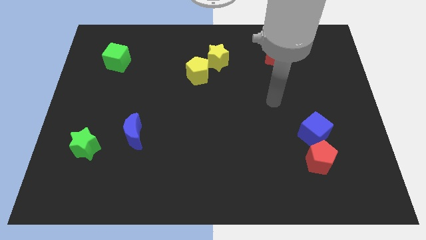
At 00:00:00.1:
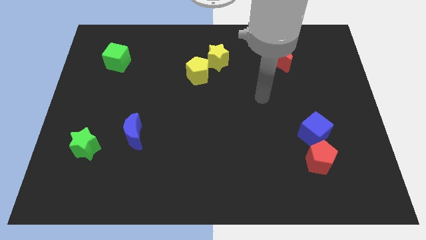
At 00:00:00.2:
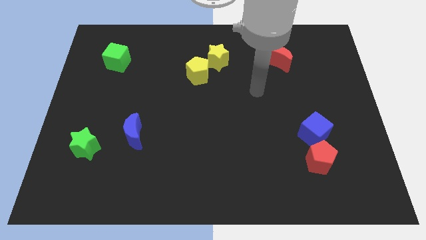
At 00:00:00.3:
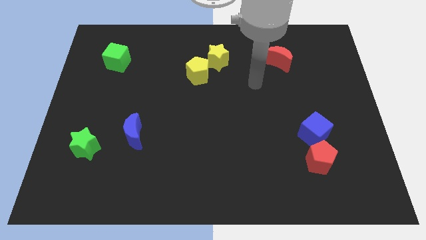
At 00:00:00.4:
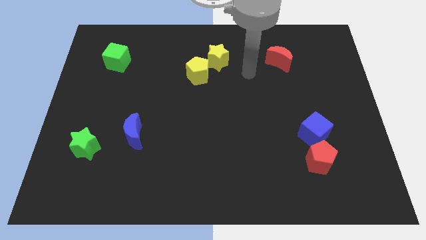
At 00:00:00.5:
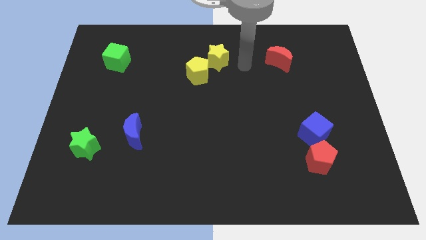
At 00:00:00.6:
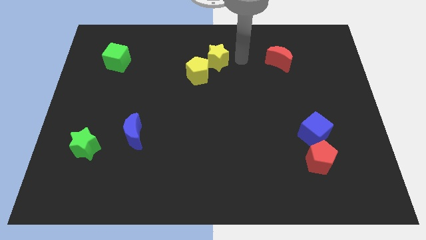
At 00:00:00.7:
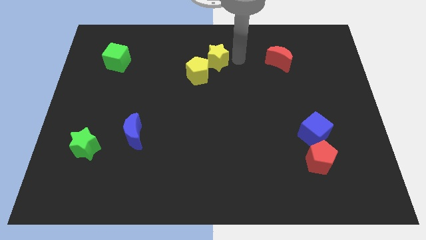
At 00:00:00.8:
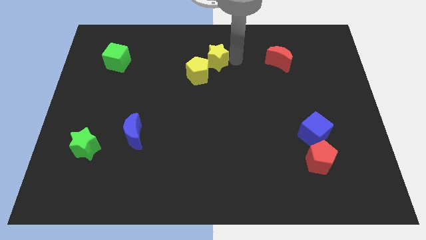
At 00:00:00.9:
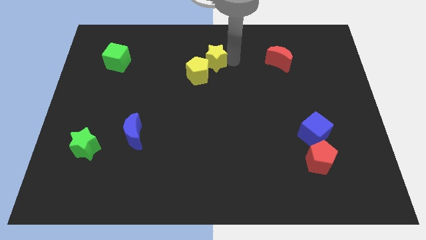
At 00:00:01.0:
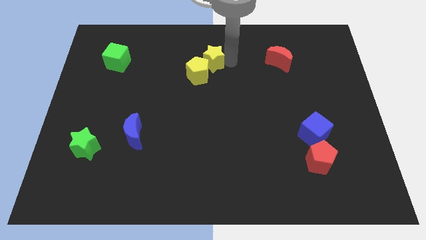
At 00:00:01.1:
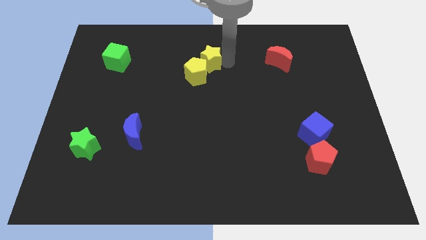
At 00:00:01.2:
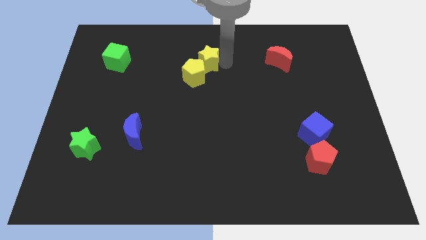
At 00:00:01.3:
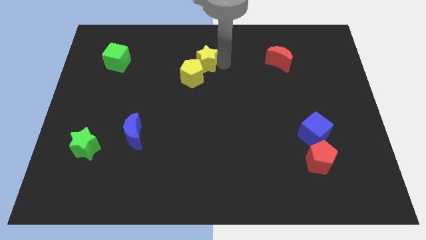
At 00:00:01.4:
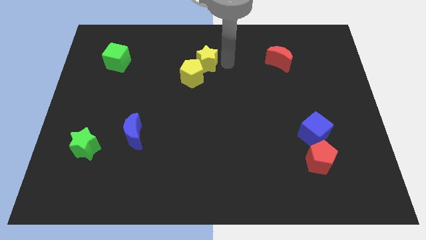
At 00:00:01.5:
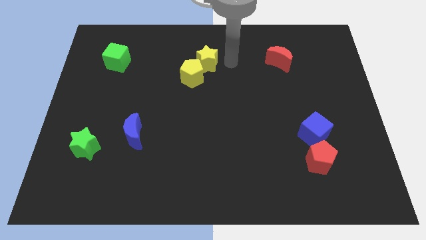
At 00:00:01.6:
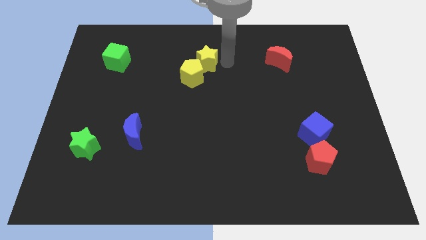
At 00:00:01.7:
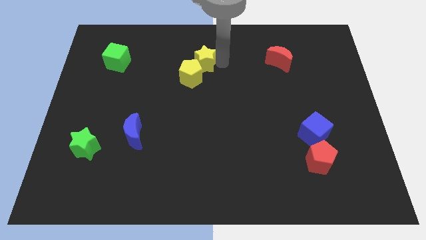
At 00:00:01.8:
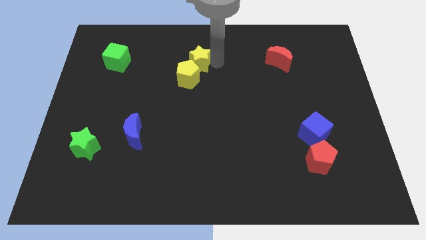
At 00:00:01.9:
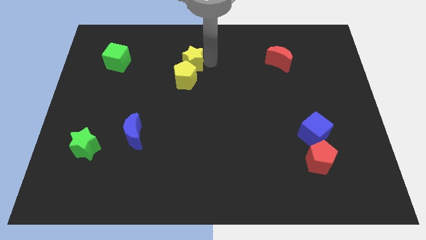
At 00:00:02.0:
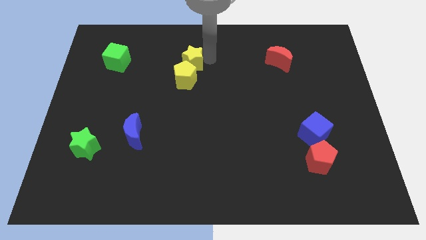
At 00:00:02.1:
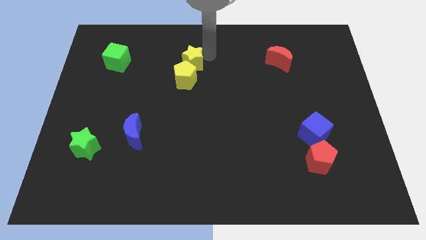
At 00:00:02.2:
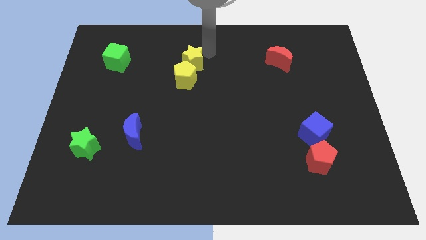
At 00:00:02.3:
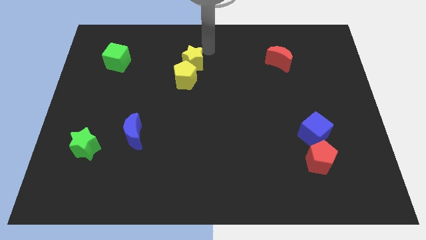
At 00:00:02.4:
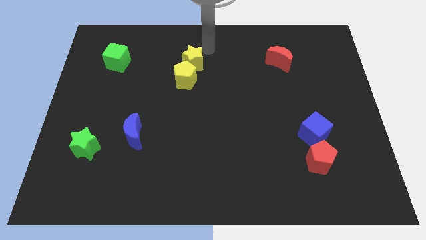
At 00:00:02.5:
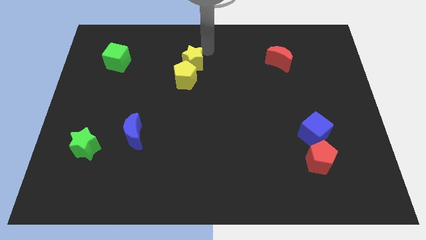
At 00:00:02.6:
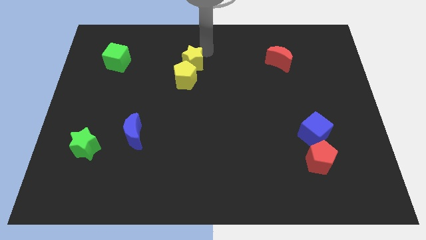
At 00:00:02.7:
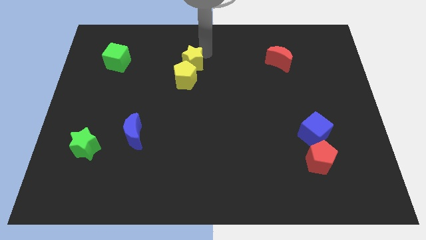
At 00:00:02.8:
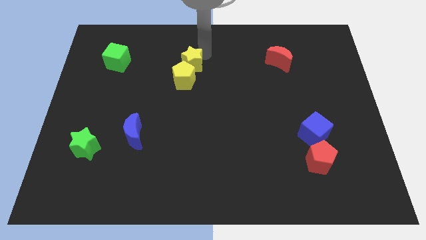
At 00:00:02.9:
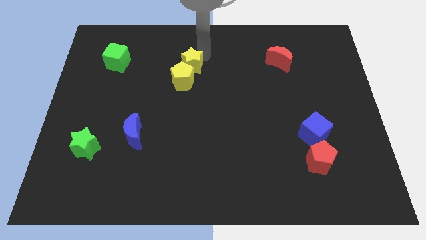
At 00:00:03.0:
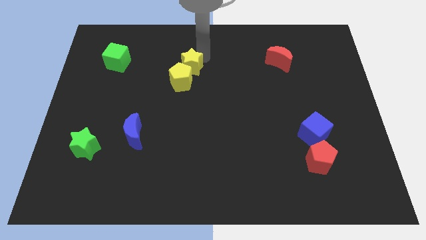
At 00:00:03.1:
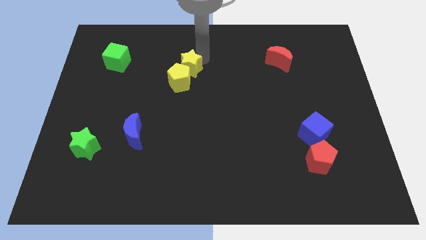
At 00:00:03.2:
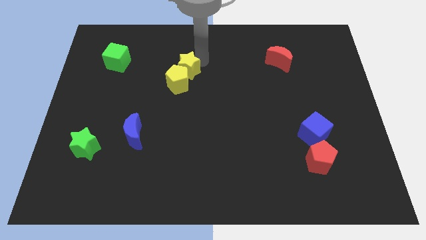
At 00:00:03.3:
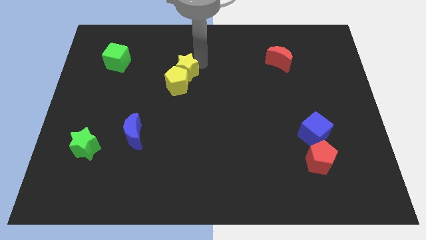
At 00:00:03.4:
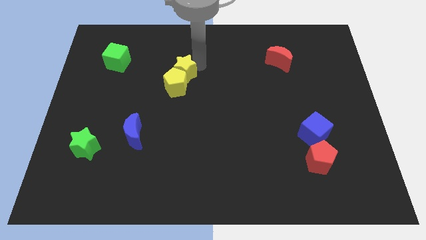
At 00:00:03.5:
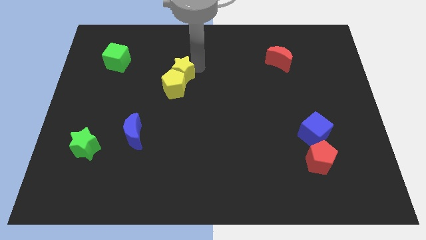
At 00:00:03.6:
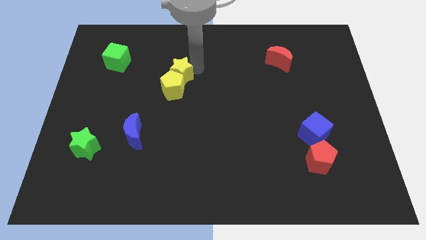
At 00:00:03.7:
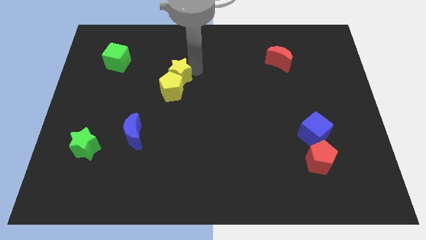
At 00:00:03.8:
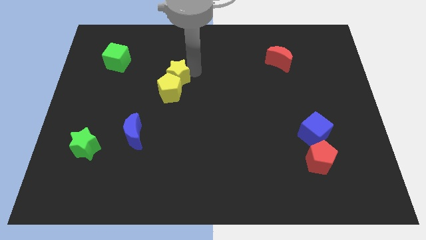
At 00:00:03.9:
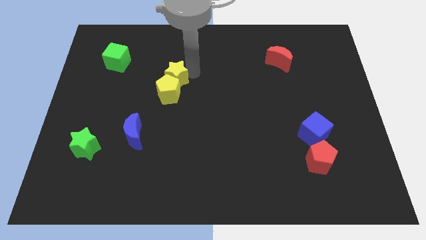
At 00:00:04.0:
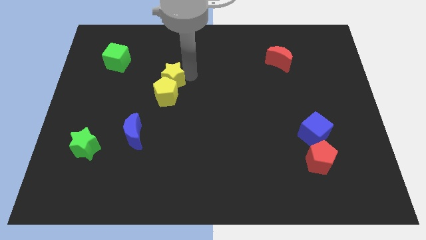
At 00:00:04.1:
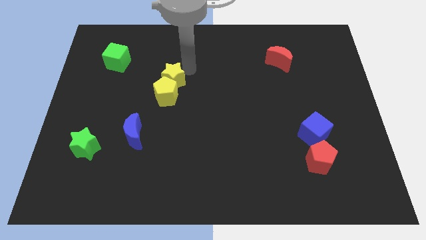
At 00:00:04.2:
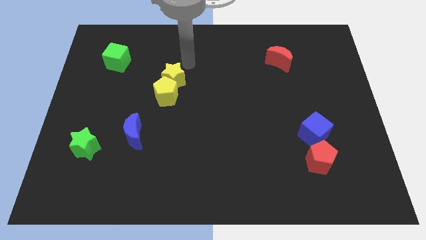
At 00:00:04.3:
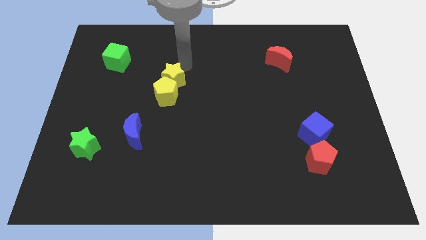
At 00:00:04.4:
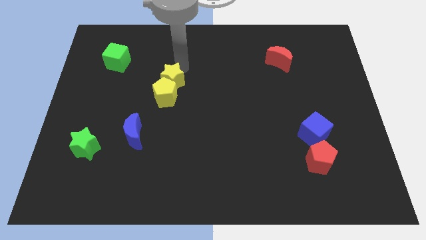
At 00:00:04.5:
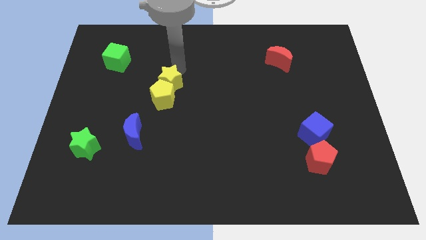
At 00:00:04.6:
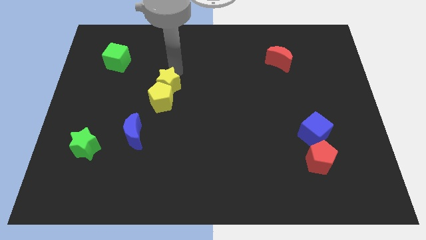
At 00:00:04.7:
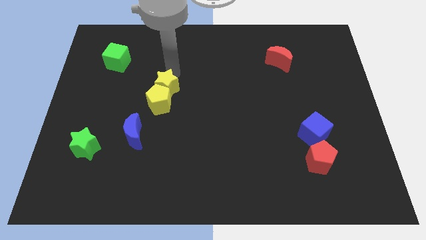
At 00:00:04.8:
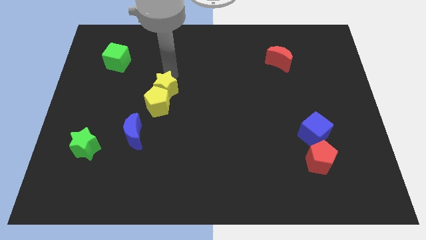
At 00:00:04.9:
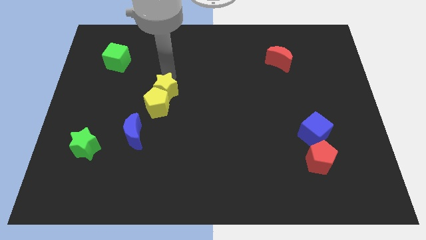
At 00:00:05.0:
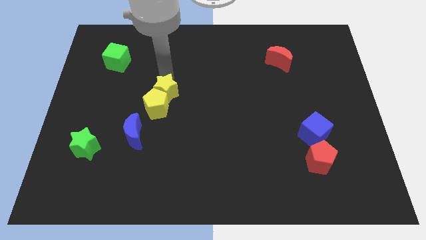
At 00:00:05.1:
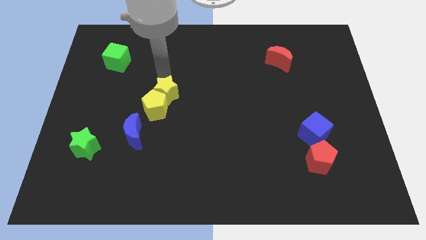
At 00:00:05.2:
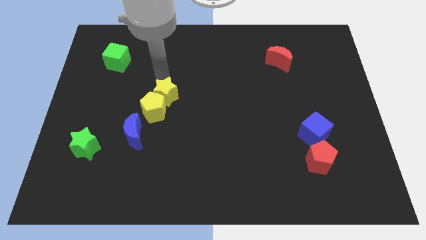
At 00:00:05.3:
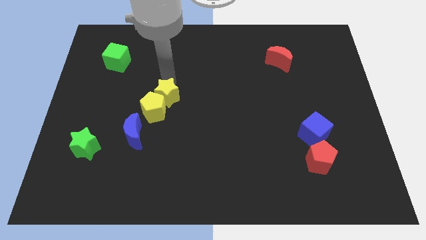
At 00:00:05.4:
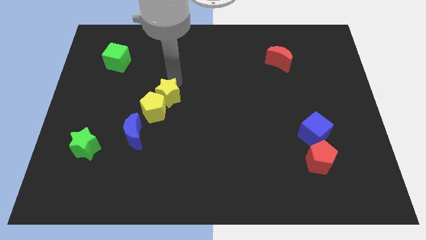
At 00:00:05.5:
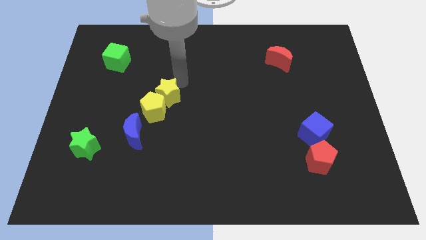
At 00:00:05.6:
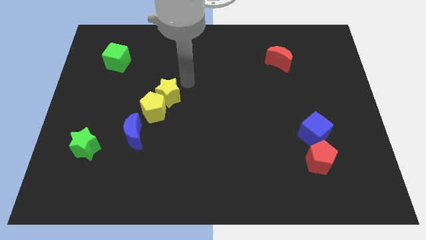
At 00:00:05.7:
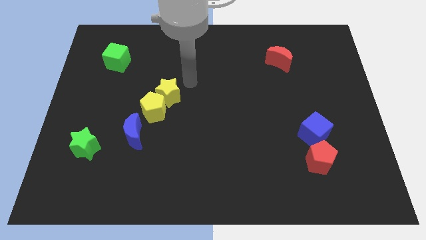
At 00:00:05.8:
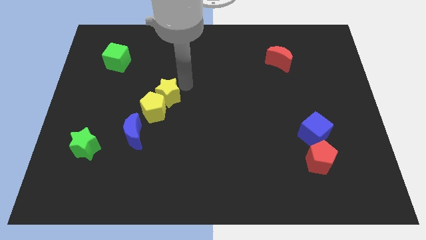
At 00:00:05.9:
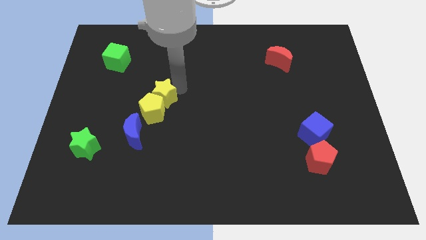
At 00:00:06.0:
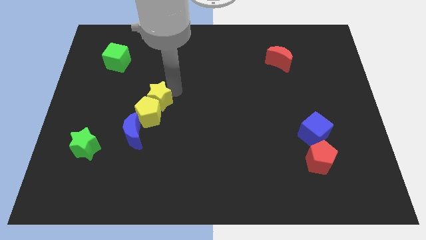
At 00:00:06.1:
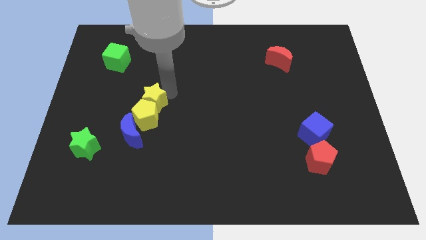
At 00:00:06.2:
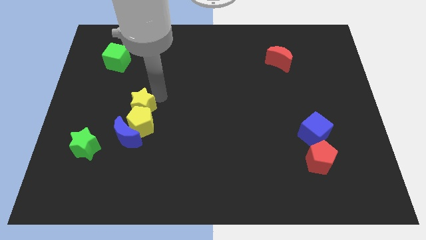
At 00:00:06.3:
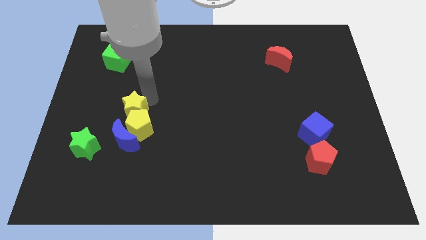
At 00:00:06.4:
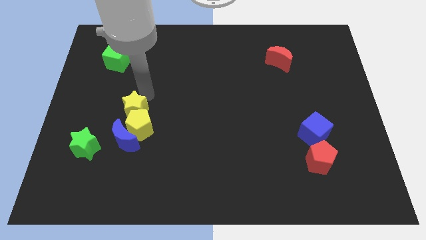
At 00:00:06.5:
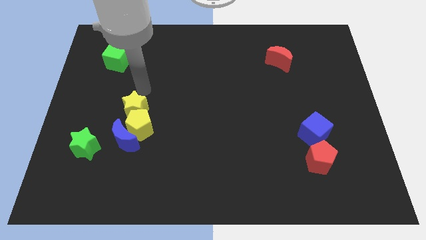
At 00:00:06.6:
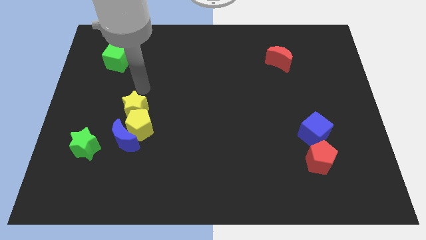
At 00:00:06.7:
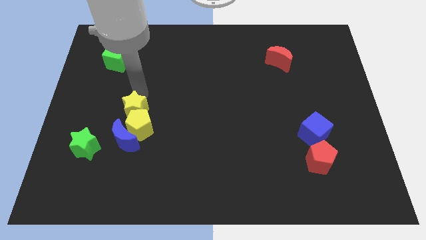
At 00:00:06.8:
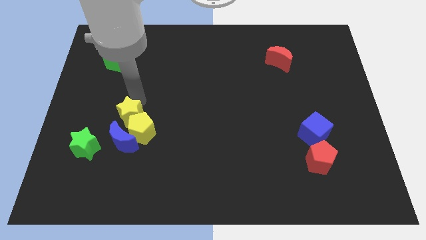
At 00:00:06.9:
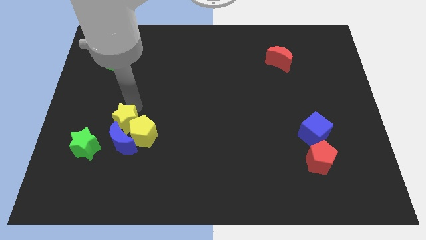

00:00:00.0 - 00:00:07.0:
push the yellow star next to the blue moon
